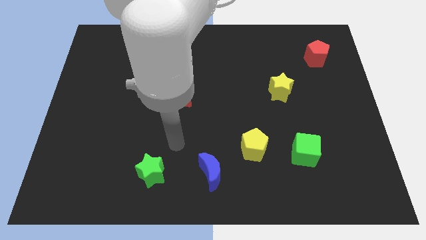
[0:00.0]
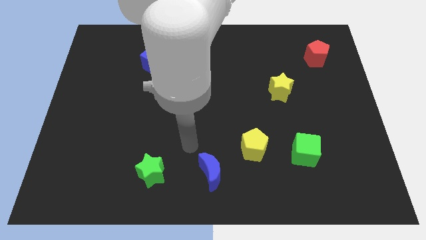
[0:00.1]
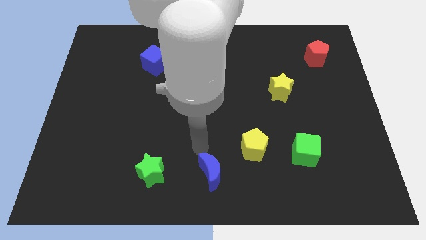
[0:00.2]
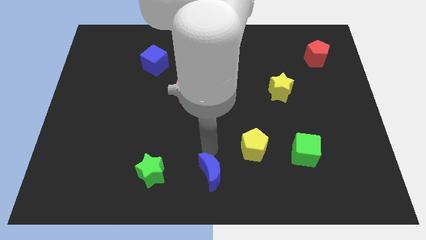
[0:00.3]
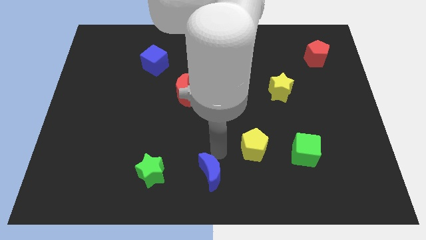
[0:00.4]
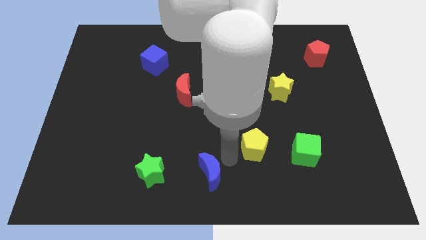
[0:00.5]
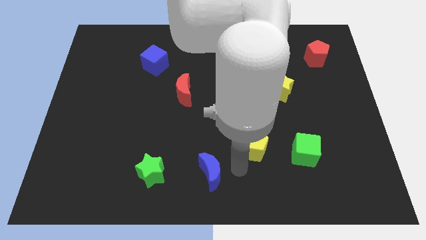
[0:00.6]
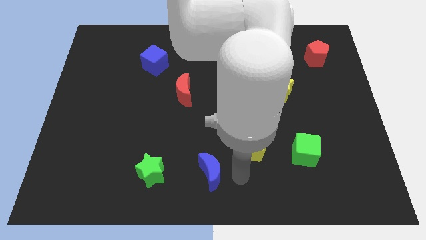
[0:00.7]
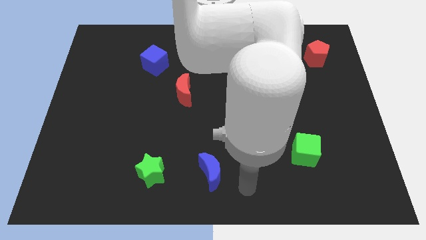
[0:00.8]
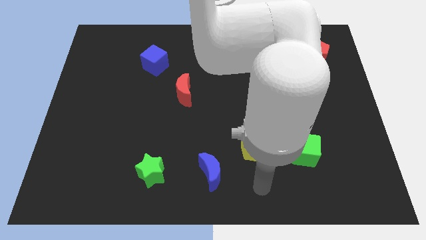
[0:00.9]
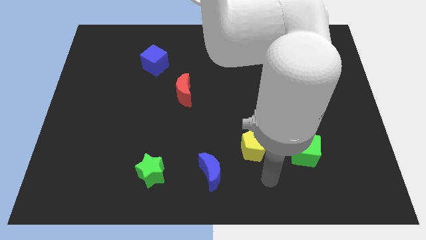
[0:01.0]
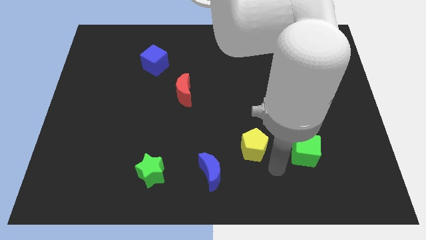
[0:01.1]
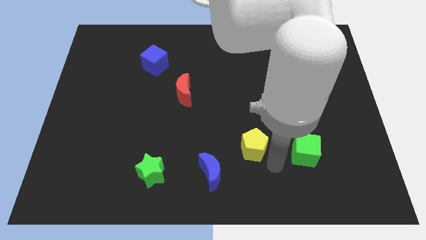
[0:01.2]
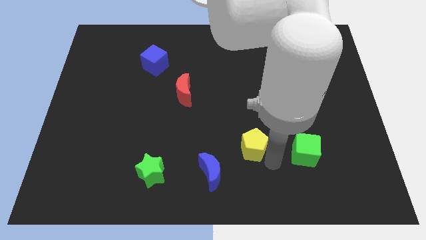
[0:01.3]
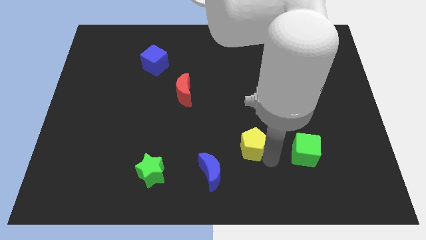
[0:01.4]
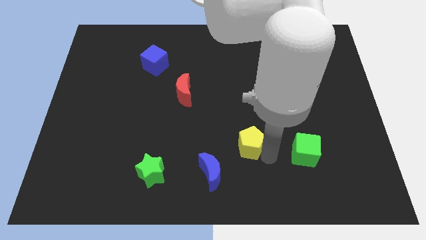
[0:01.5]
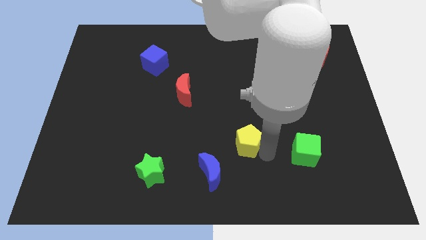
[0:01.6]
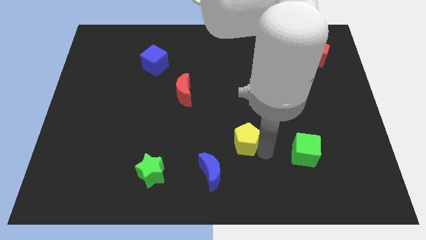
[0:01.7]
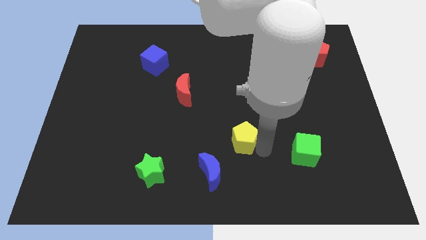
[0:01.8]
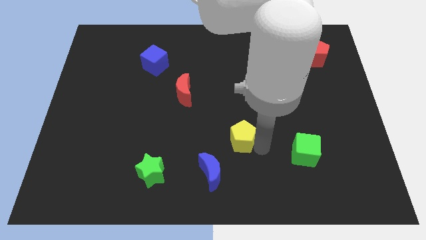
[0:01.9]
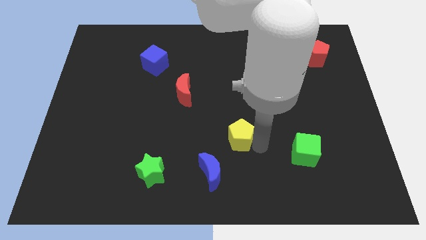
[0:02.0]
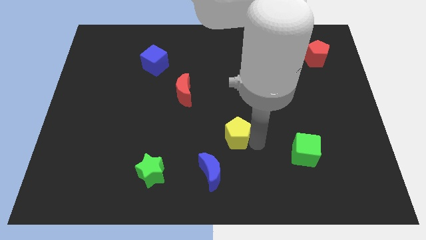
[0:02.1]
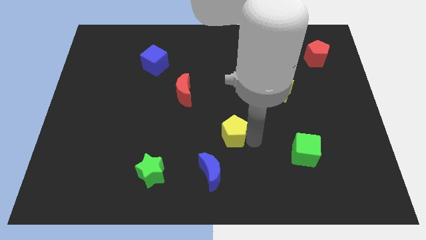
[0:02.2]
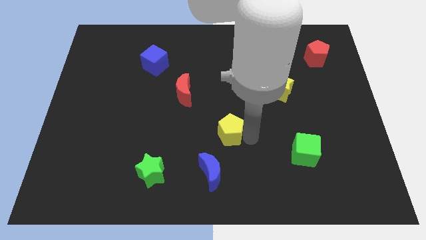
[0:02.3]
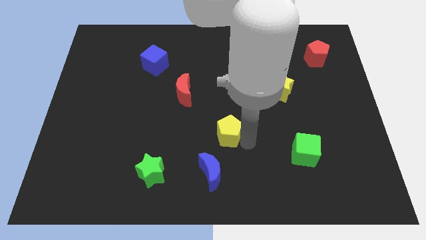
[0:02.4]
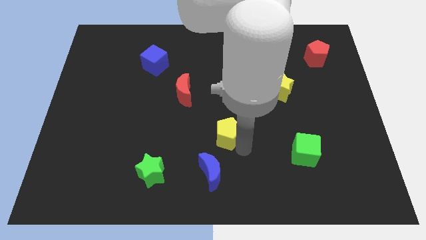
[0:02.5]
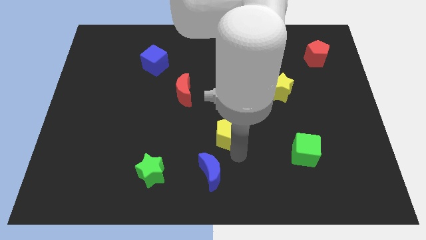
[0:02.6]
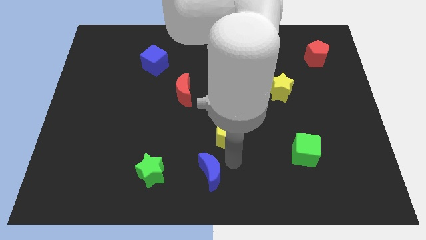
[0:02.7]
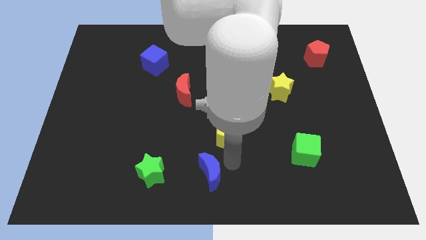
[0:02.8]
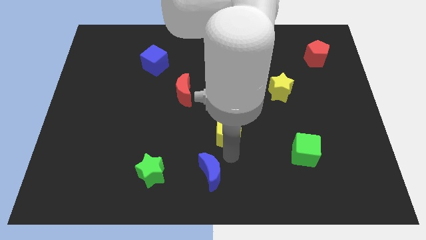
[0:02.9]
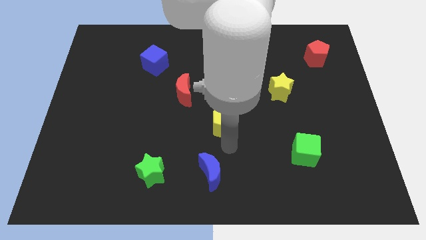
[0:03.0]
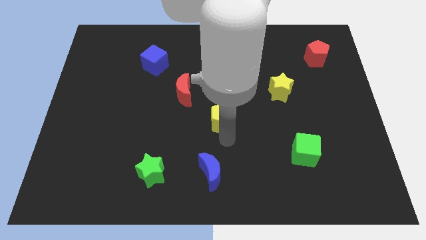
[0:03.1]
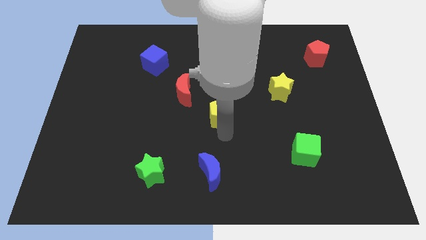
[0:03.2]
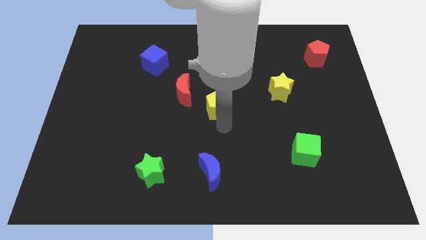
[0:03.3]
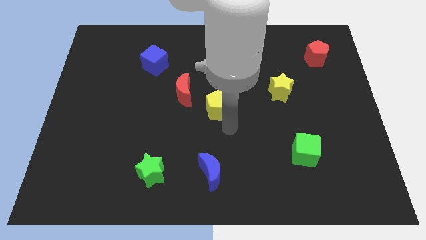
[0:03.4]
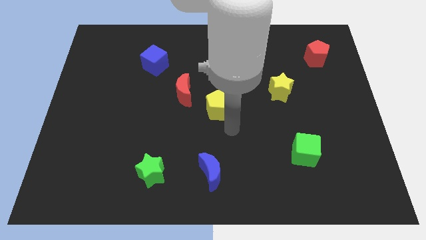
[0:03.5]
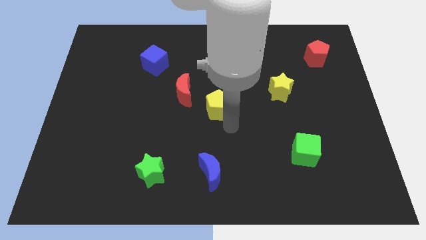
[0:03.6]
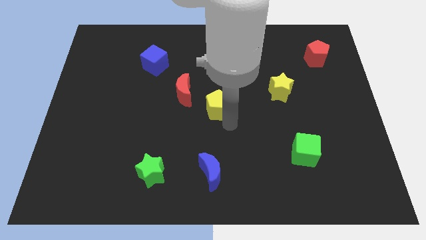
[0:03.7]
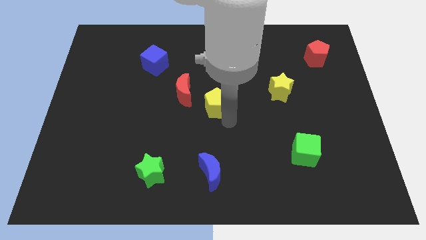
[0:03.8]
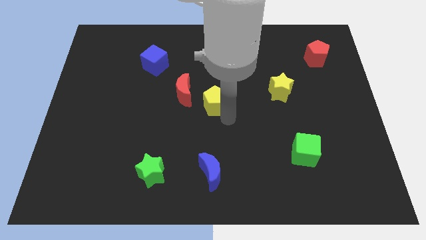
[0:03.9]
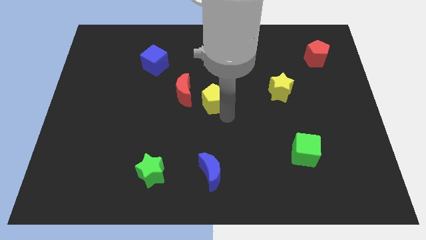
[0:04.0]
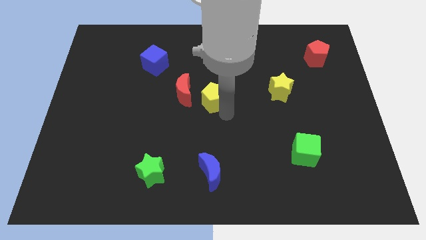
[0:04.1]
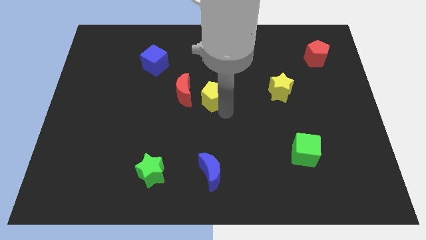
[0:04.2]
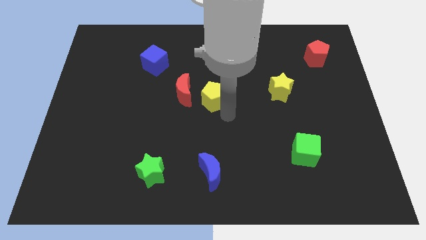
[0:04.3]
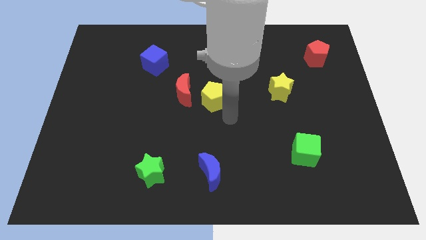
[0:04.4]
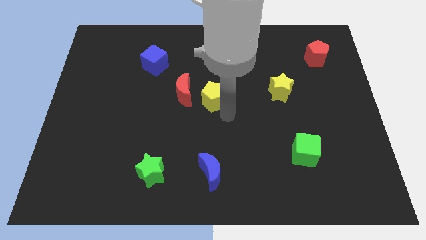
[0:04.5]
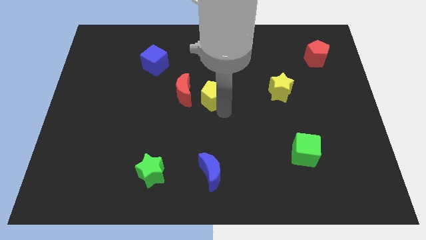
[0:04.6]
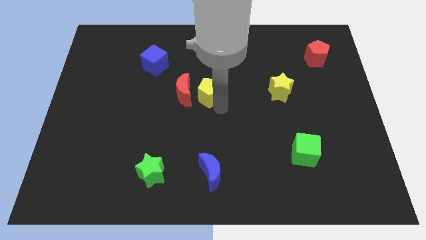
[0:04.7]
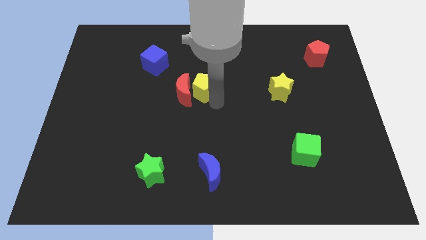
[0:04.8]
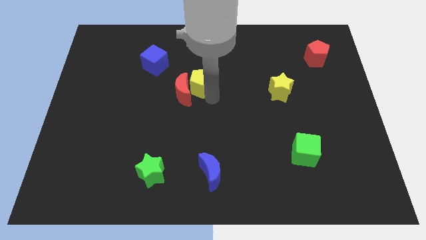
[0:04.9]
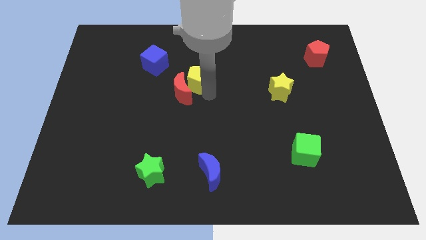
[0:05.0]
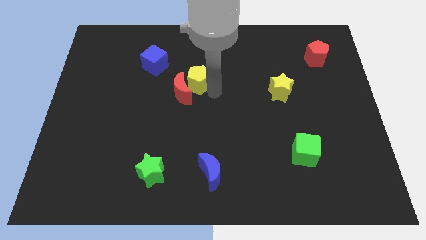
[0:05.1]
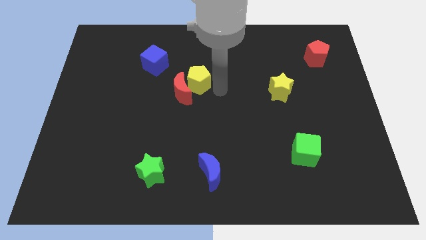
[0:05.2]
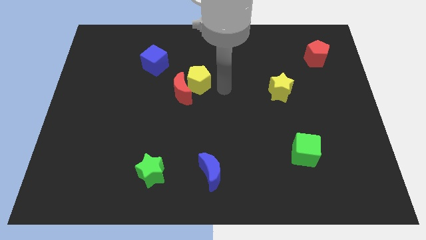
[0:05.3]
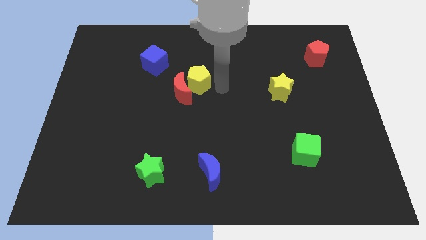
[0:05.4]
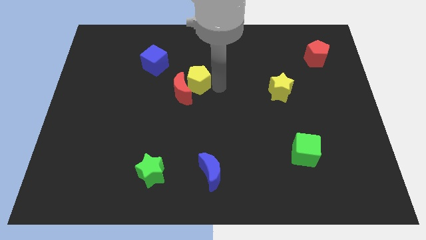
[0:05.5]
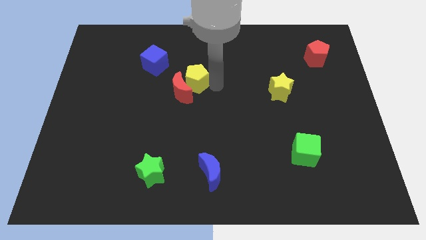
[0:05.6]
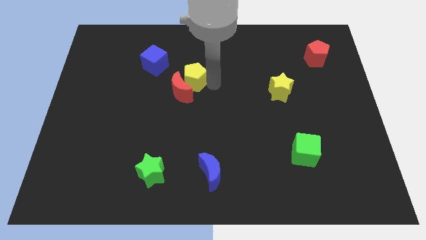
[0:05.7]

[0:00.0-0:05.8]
slide the yellow pentagon to the bottom right side of the blue cube

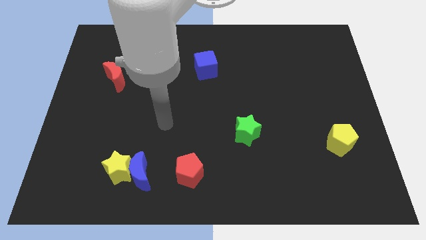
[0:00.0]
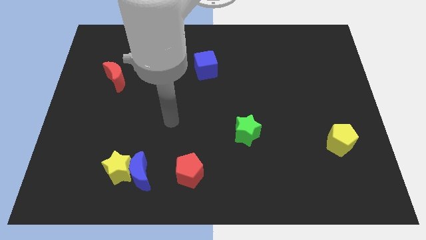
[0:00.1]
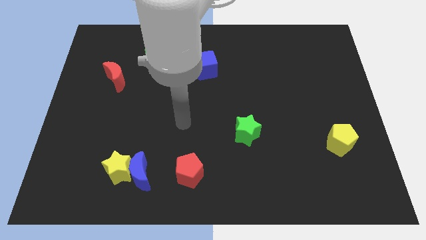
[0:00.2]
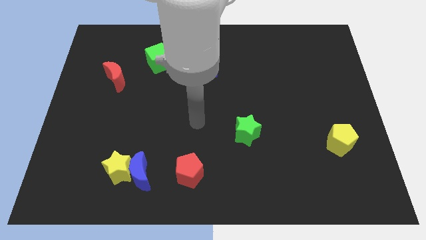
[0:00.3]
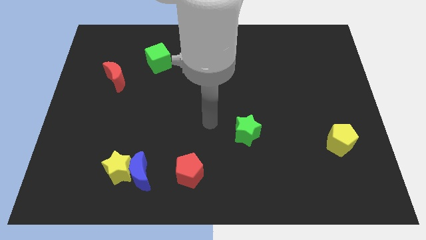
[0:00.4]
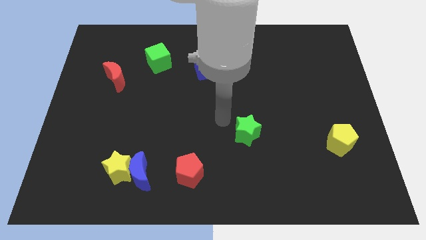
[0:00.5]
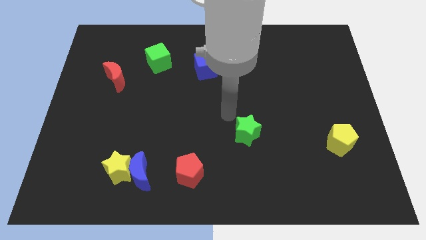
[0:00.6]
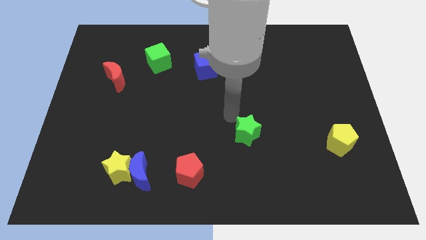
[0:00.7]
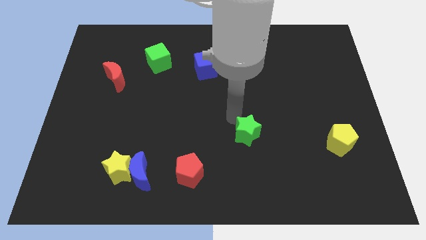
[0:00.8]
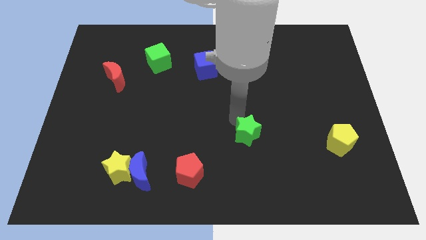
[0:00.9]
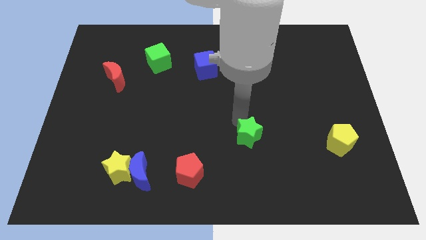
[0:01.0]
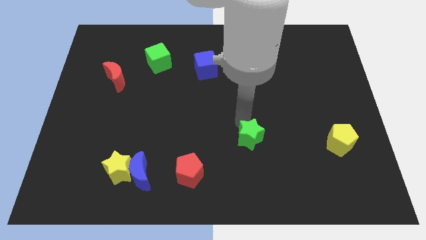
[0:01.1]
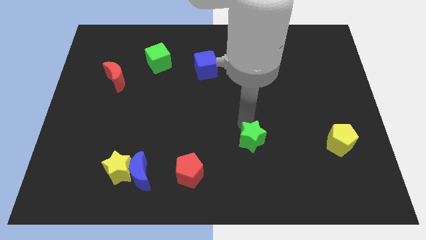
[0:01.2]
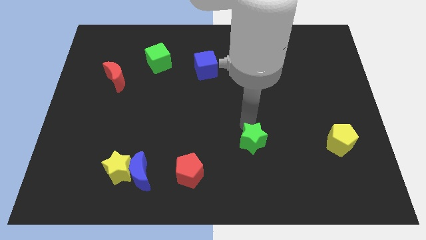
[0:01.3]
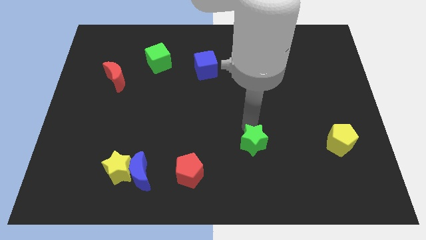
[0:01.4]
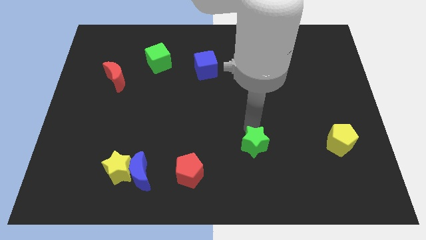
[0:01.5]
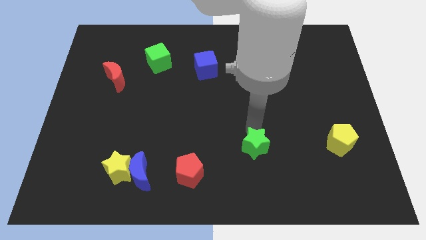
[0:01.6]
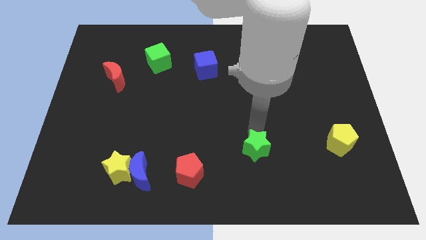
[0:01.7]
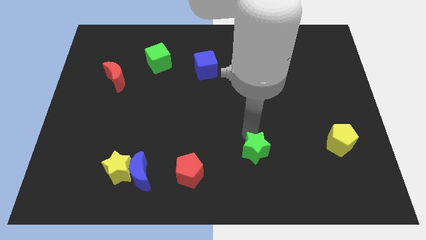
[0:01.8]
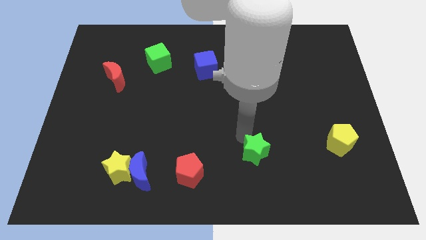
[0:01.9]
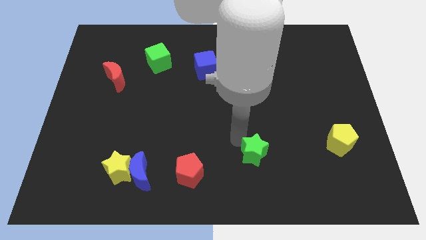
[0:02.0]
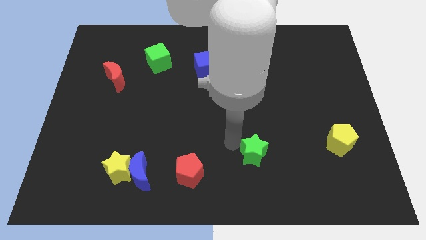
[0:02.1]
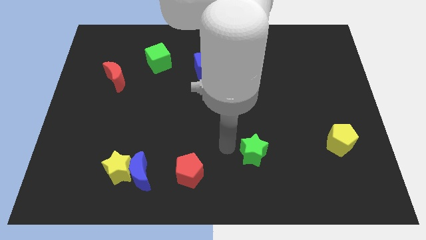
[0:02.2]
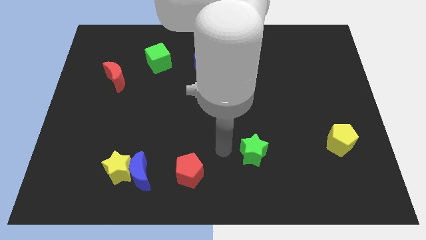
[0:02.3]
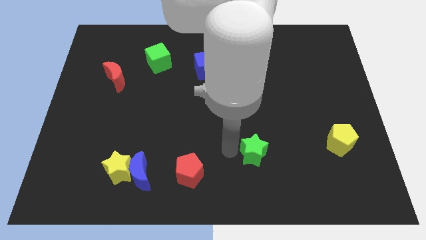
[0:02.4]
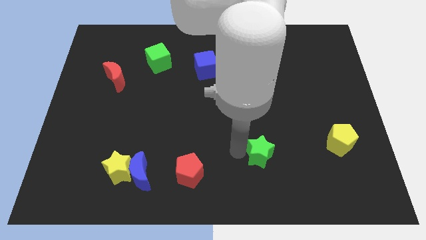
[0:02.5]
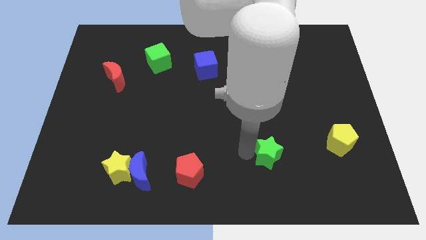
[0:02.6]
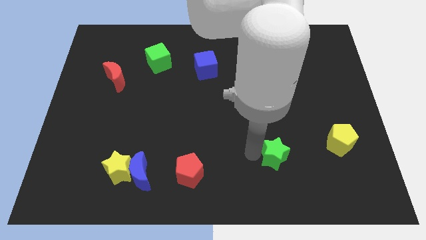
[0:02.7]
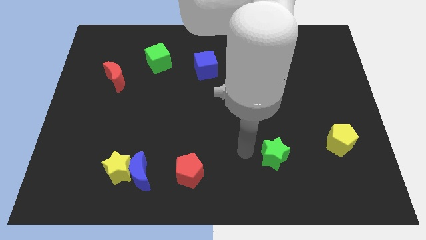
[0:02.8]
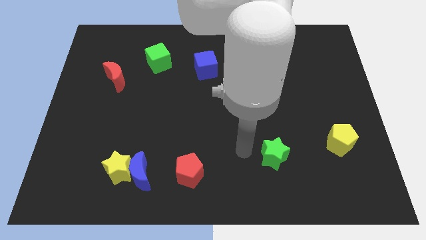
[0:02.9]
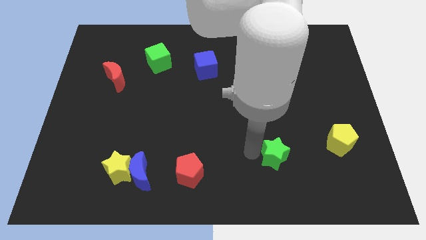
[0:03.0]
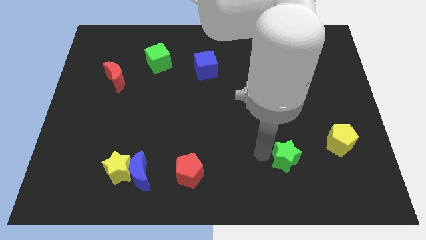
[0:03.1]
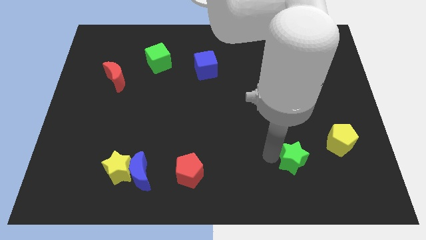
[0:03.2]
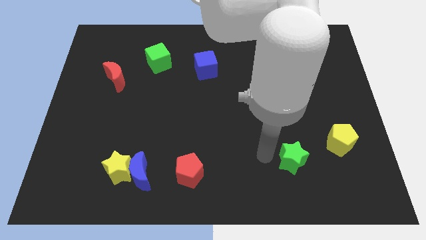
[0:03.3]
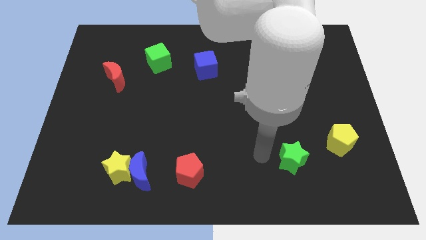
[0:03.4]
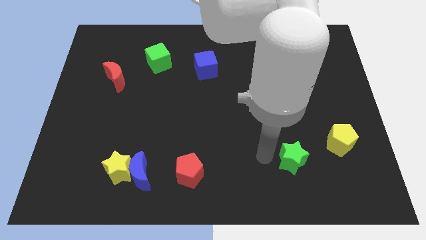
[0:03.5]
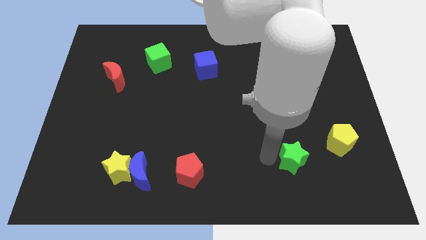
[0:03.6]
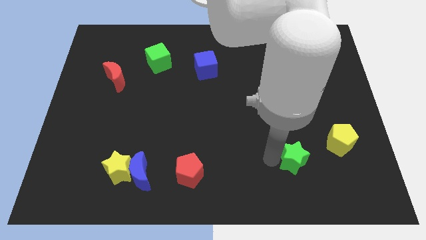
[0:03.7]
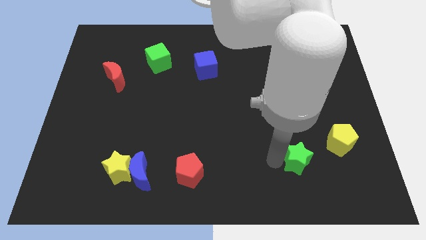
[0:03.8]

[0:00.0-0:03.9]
move the green star to the bottom left side of the yellow pentagon
